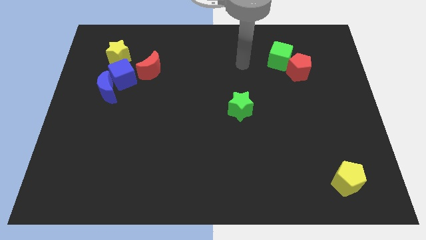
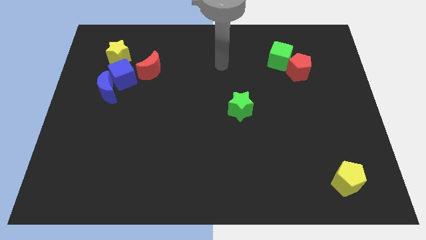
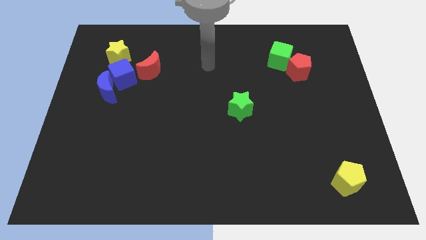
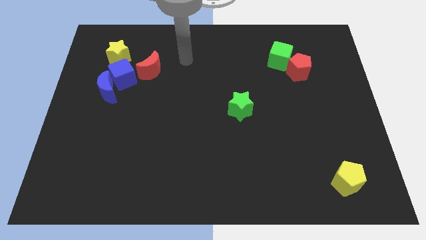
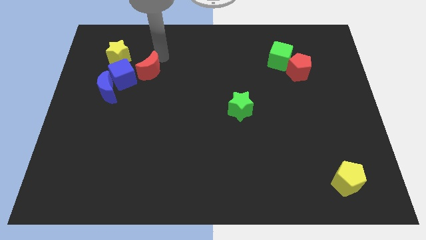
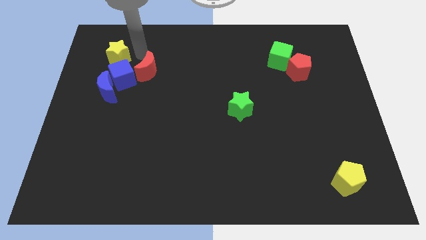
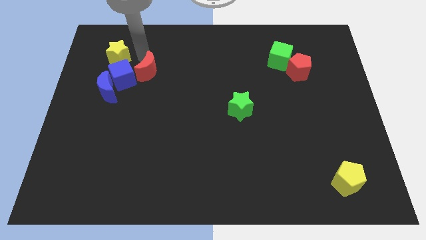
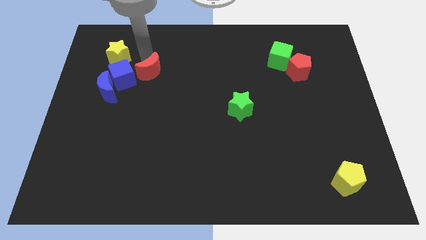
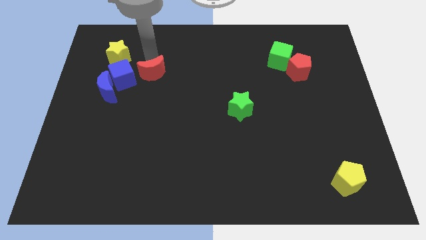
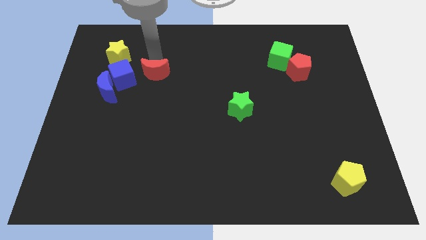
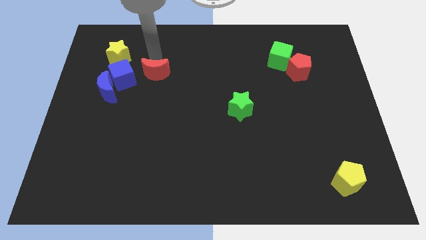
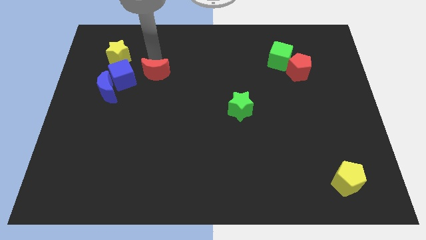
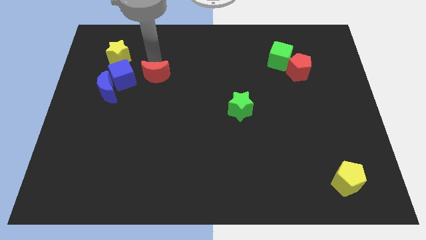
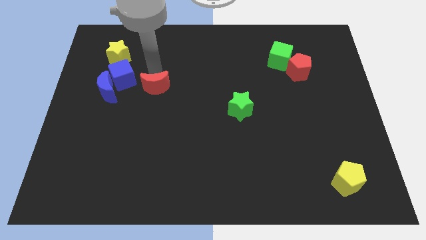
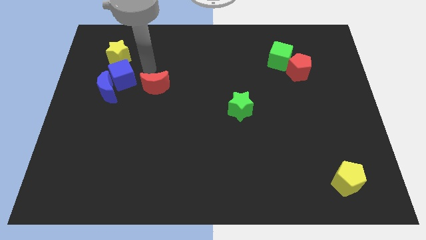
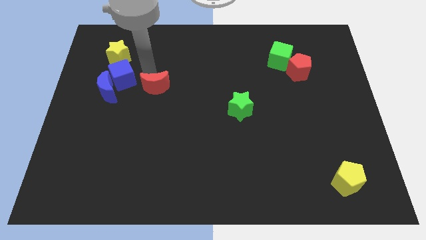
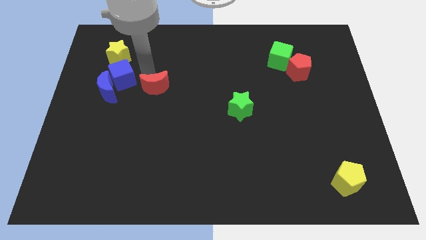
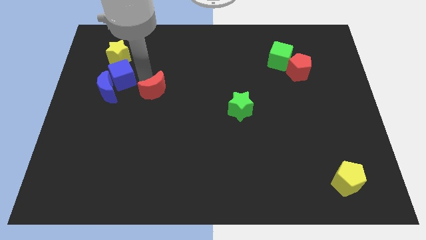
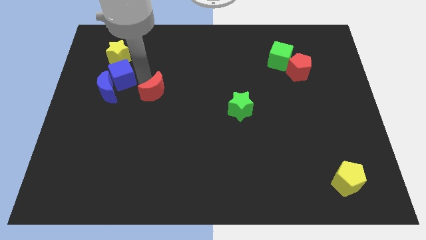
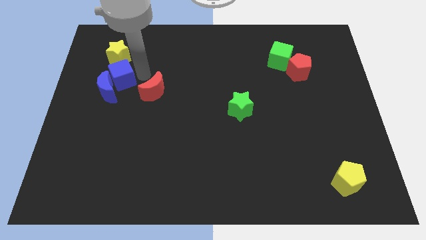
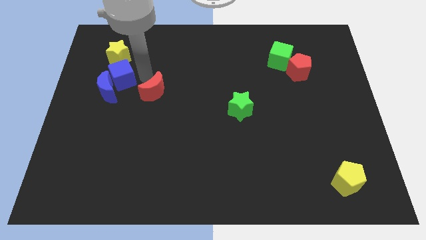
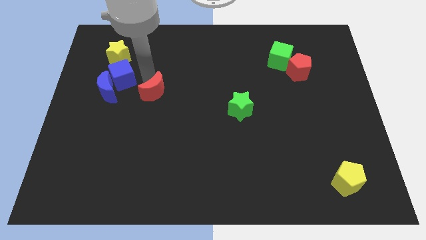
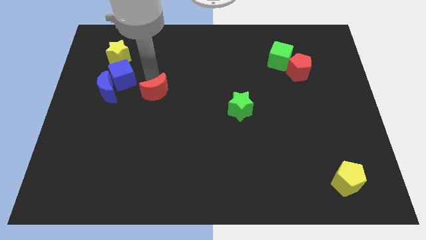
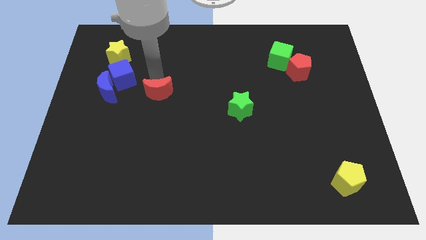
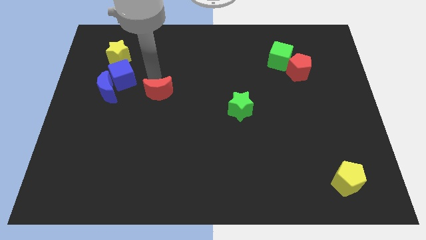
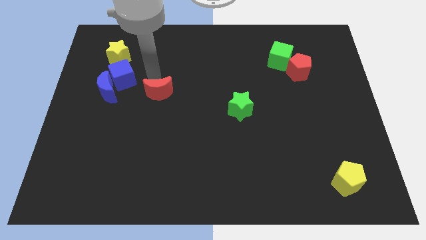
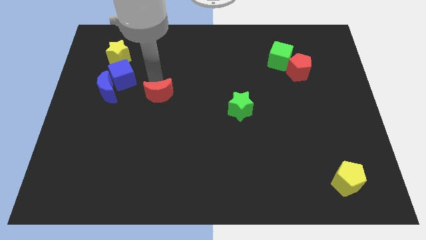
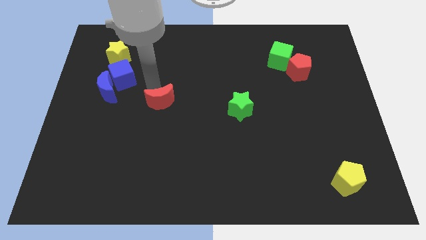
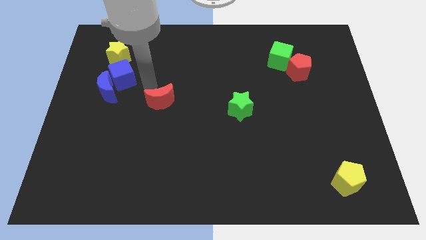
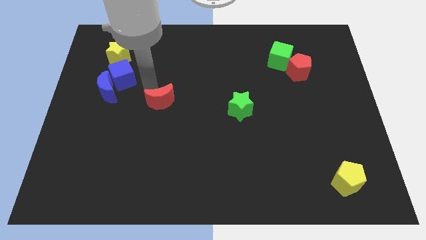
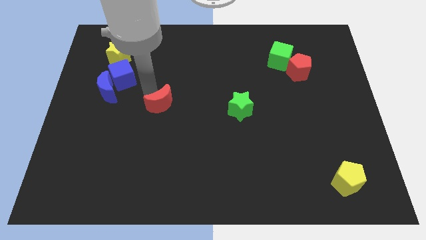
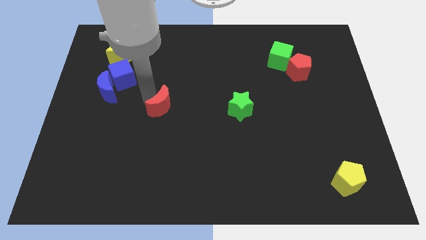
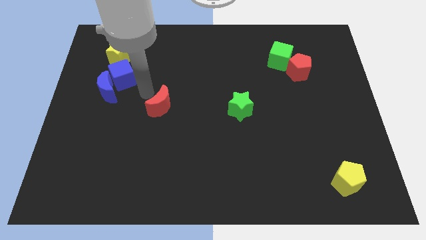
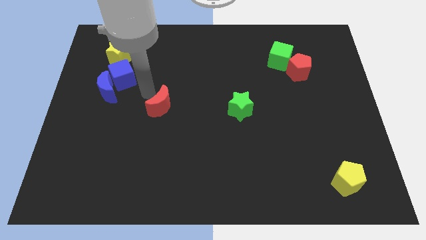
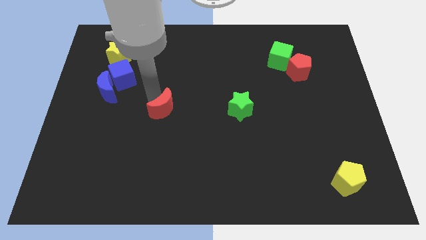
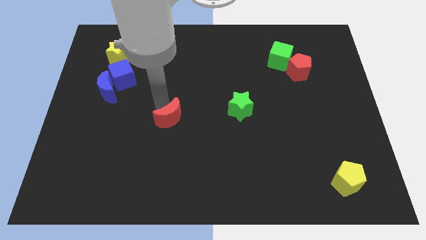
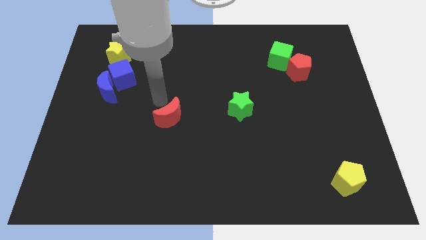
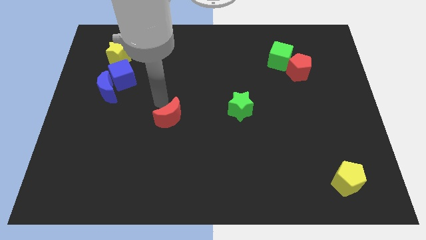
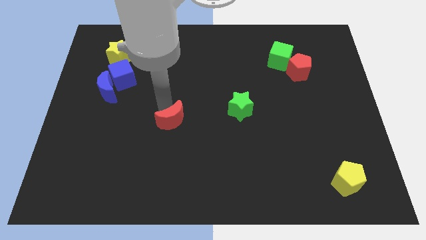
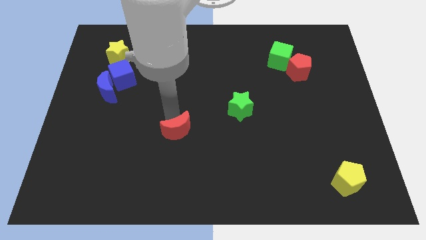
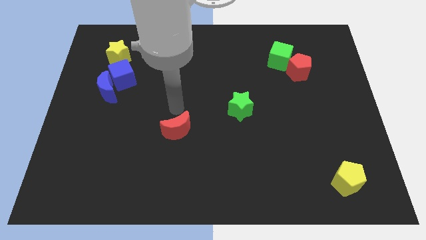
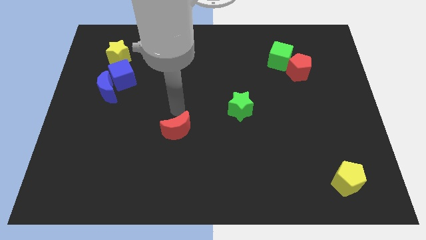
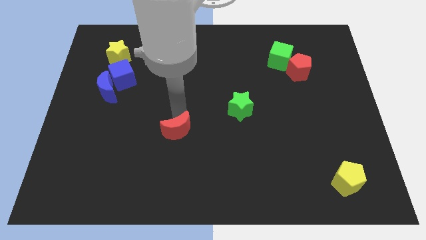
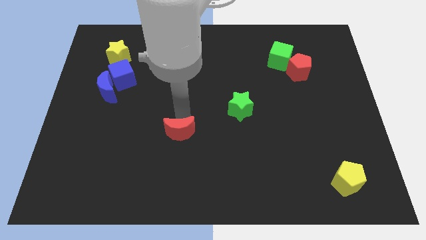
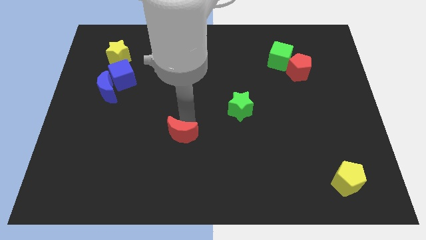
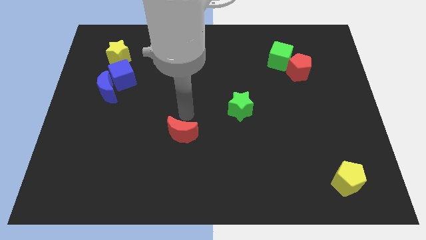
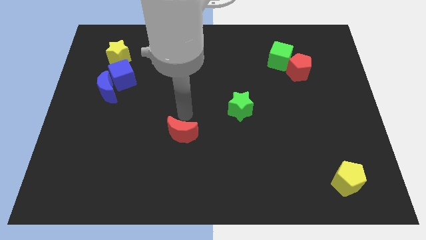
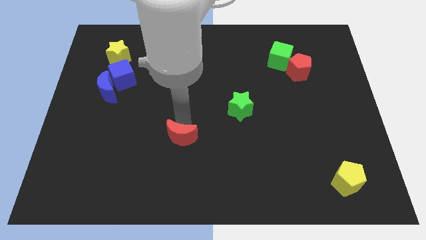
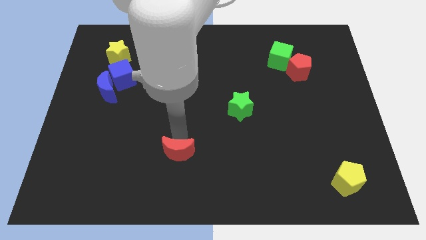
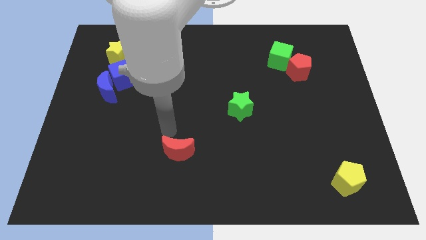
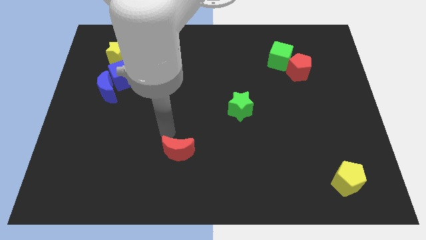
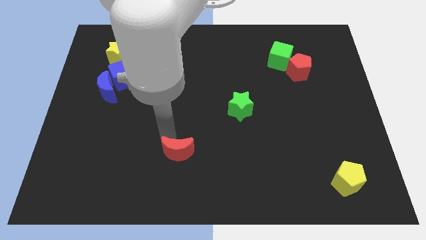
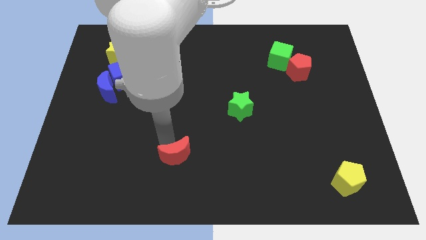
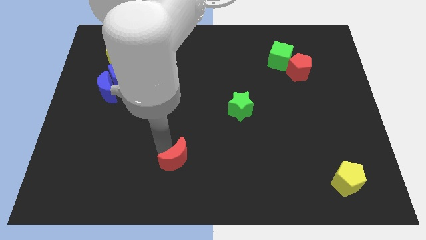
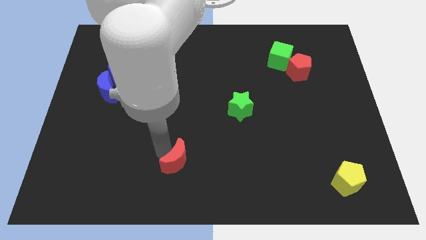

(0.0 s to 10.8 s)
slide the red moon to the bottom

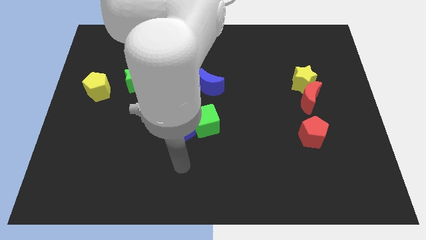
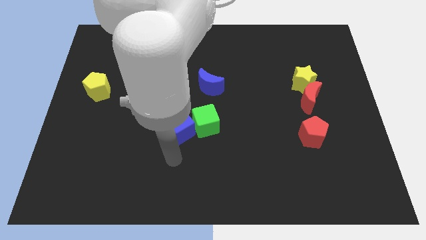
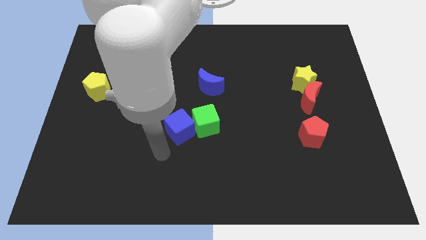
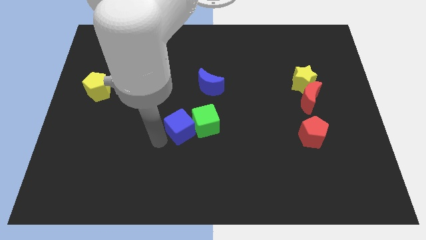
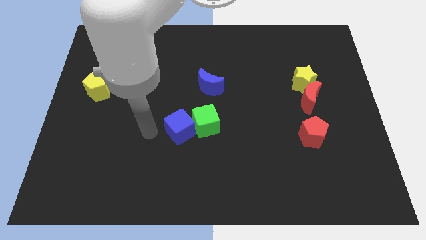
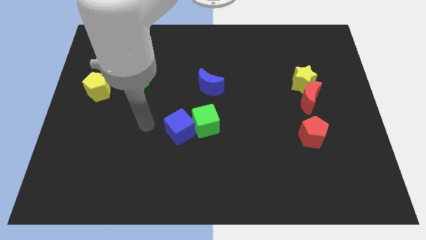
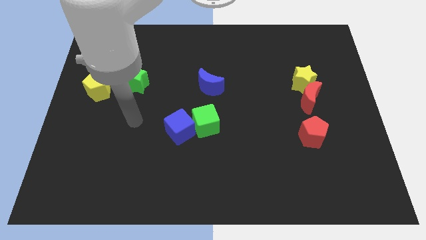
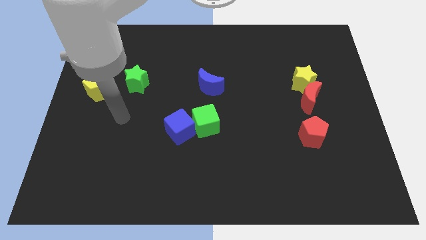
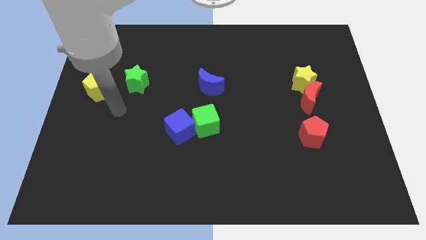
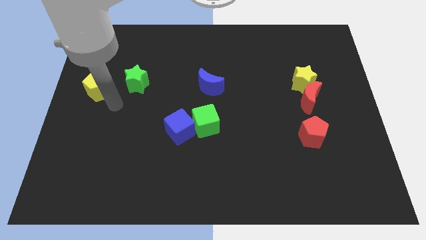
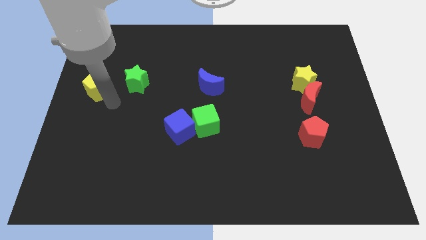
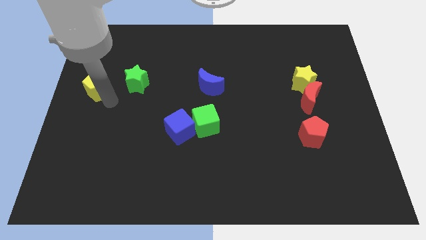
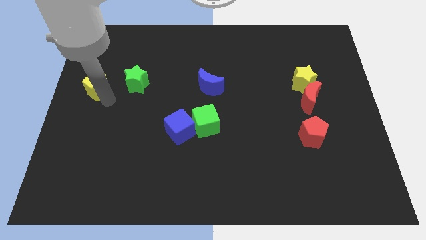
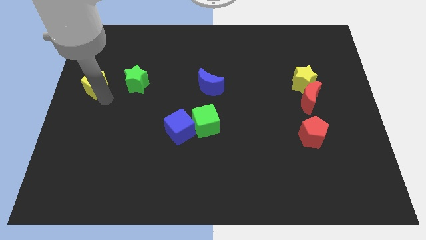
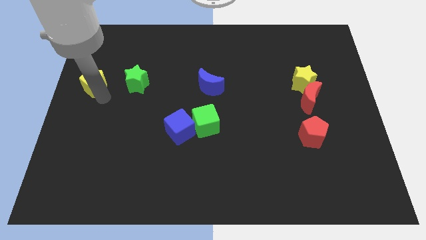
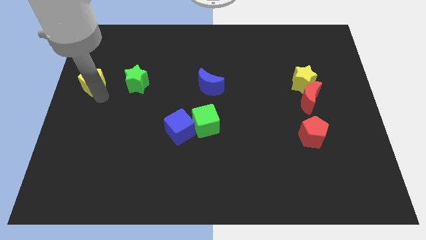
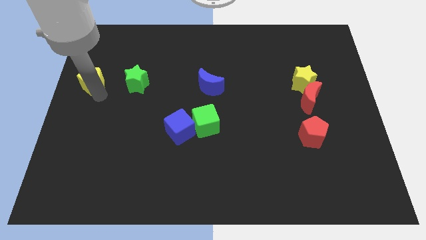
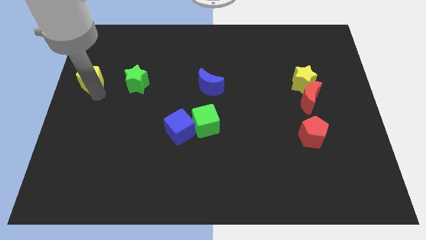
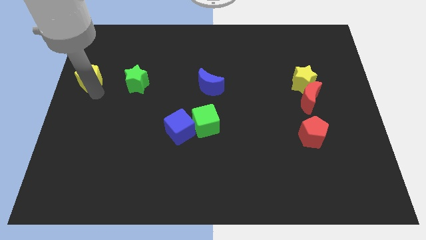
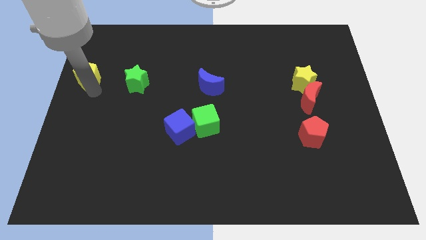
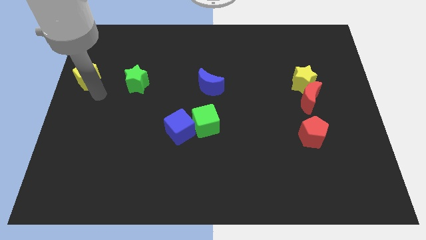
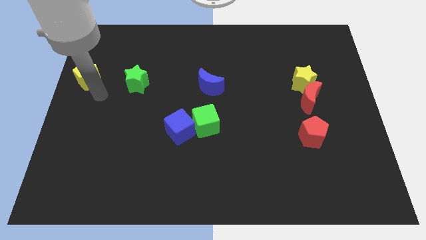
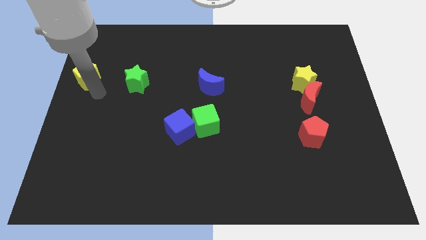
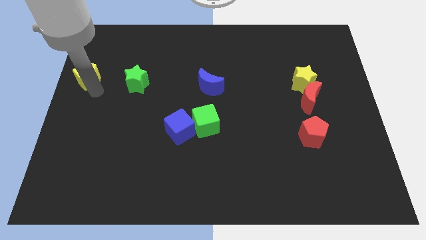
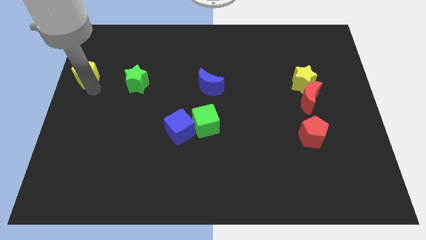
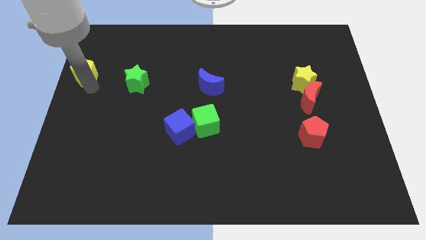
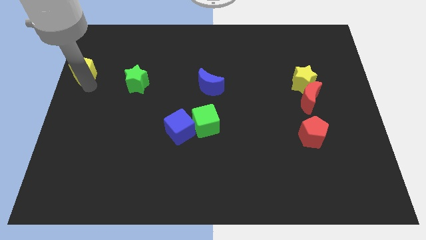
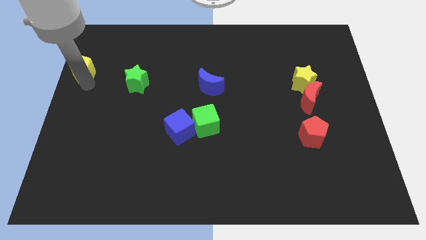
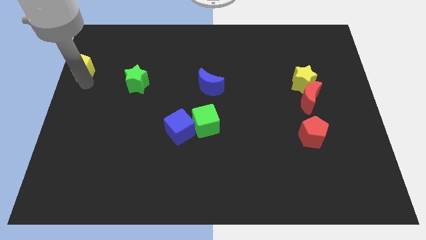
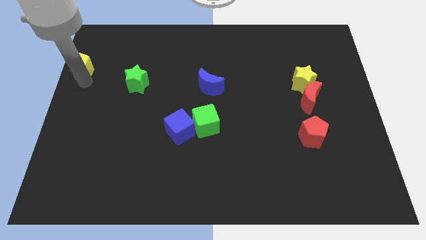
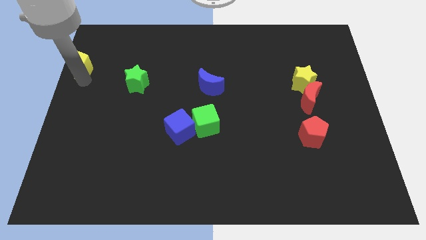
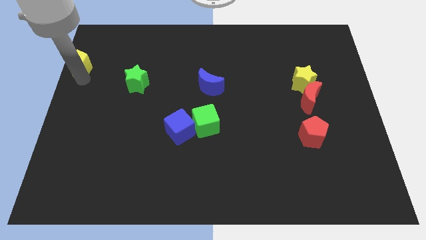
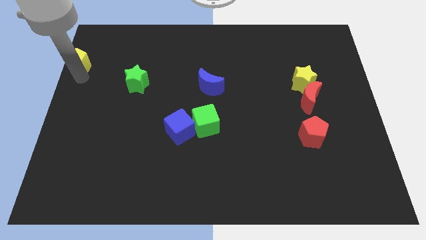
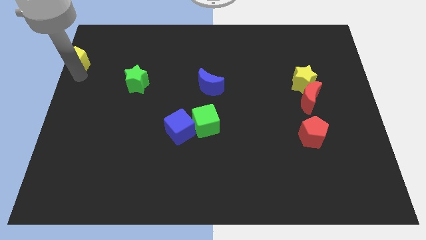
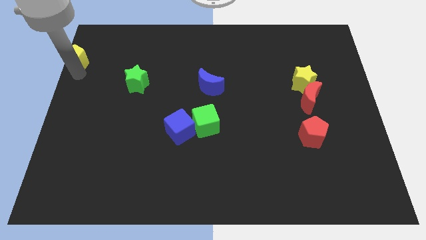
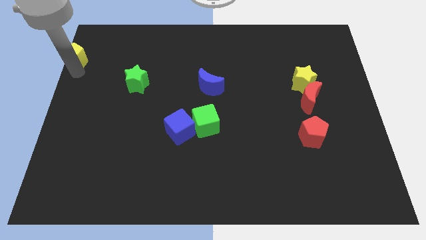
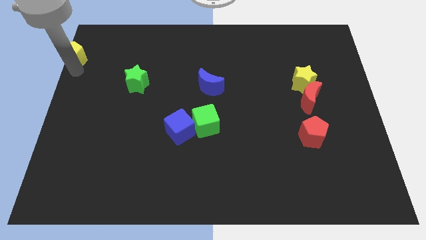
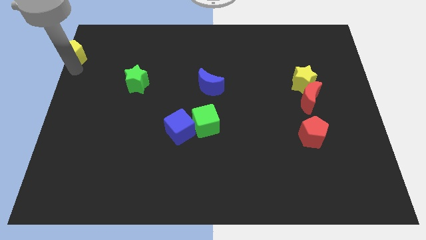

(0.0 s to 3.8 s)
put the yellow pentagon to the top left corner
